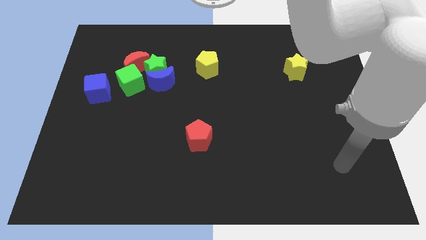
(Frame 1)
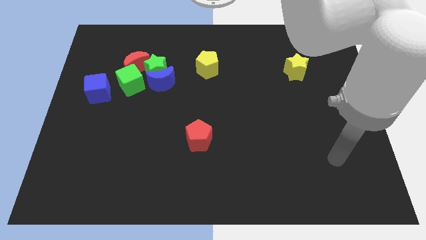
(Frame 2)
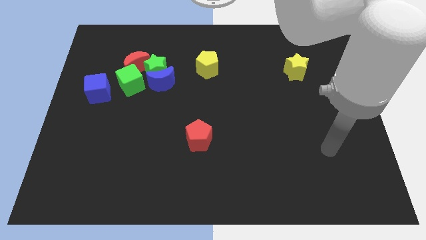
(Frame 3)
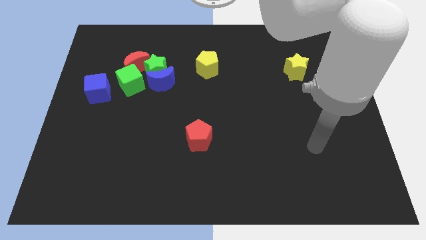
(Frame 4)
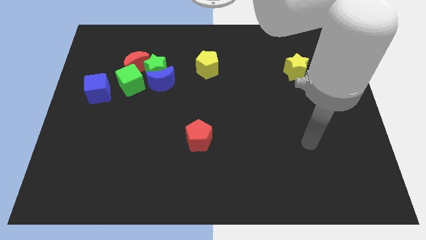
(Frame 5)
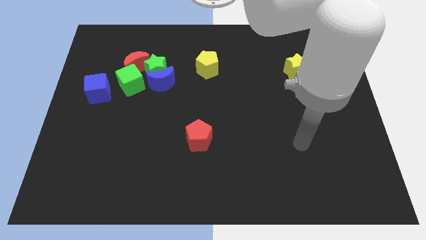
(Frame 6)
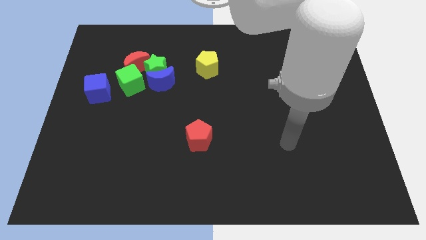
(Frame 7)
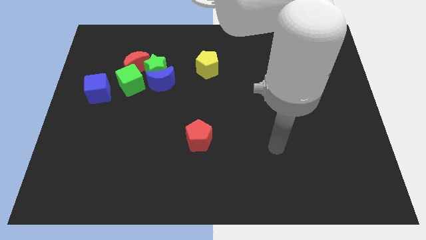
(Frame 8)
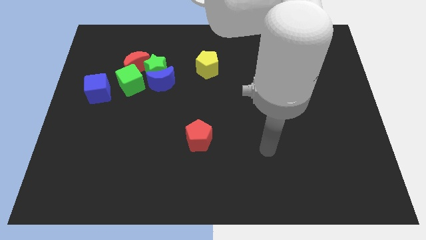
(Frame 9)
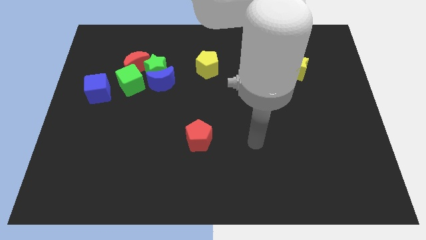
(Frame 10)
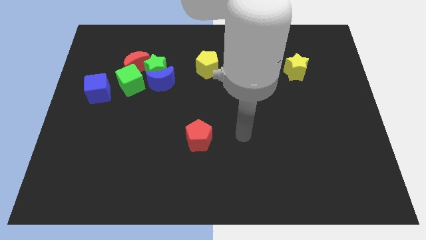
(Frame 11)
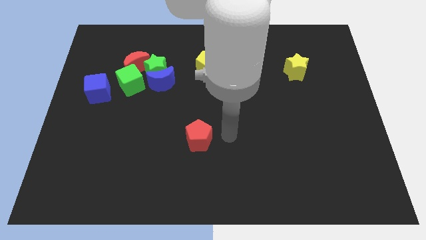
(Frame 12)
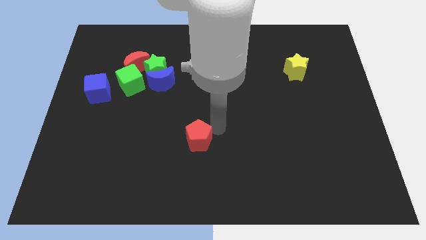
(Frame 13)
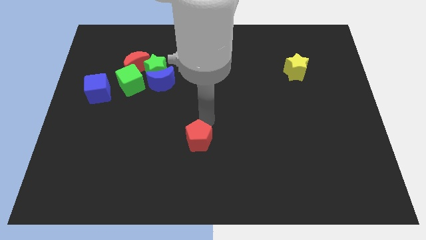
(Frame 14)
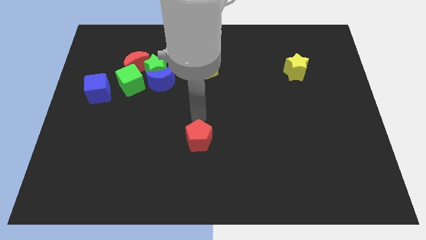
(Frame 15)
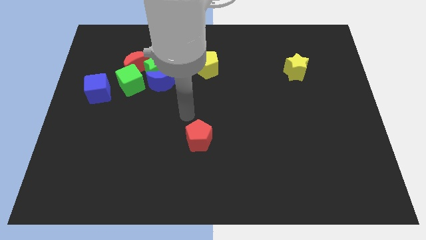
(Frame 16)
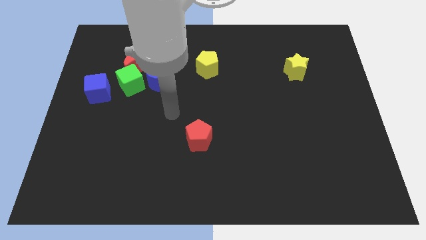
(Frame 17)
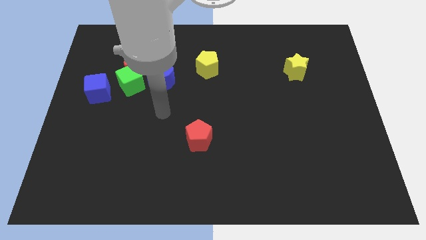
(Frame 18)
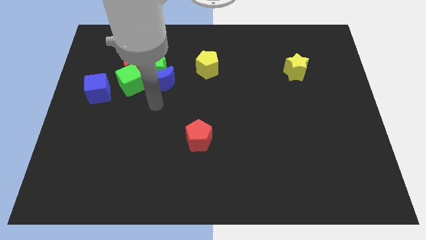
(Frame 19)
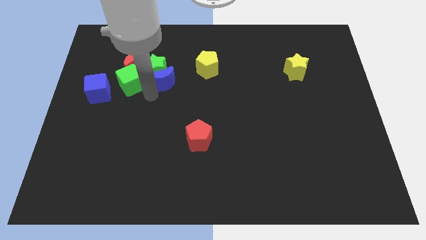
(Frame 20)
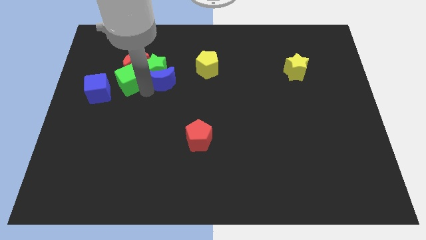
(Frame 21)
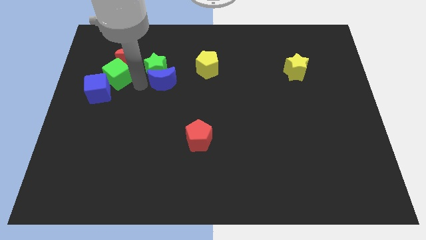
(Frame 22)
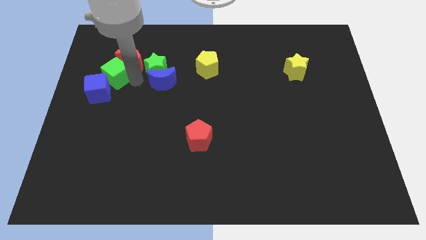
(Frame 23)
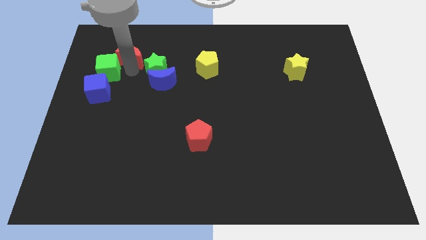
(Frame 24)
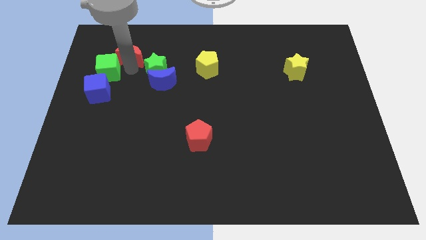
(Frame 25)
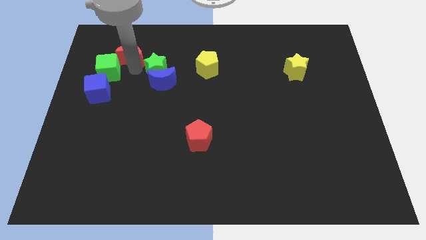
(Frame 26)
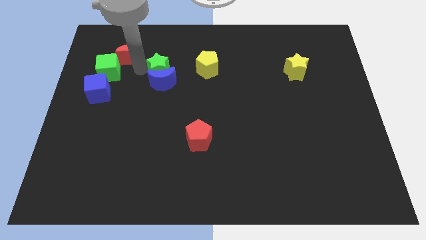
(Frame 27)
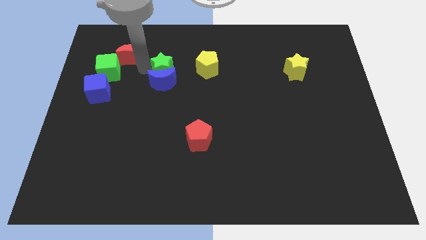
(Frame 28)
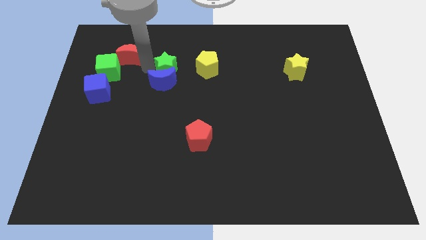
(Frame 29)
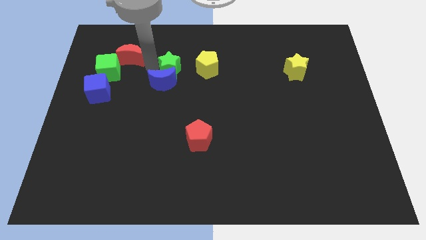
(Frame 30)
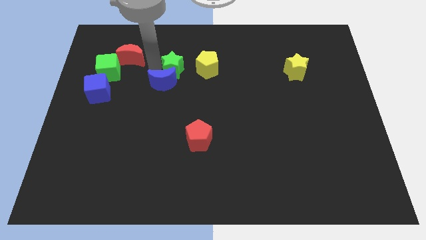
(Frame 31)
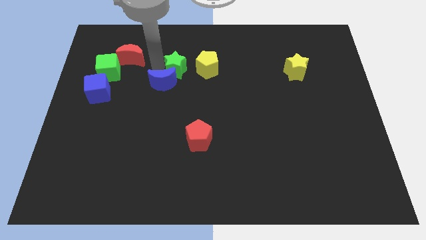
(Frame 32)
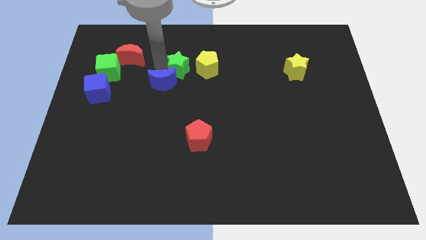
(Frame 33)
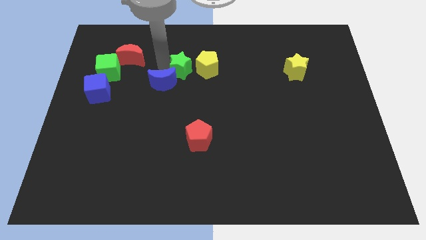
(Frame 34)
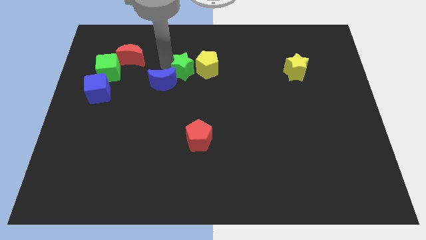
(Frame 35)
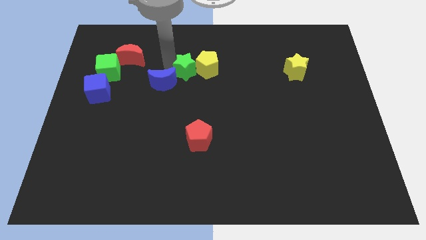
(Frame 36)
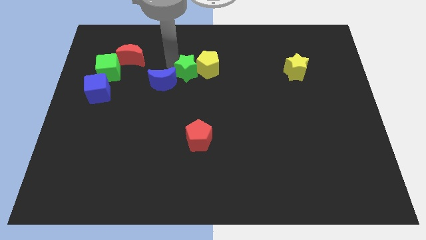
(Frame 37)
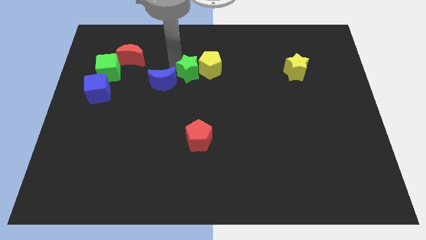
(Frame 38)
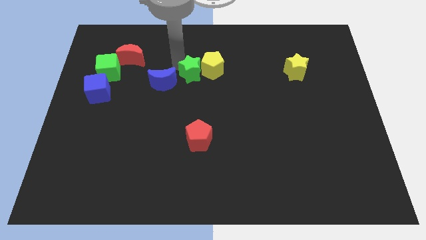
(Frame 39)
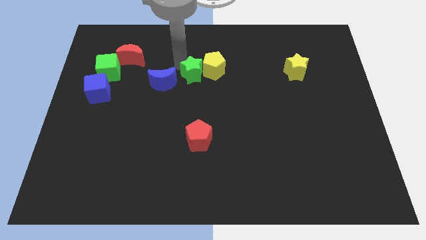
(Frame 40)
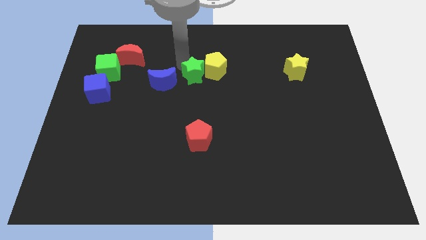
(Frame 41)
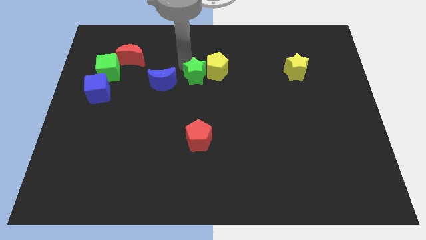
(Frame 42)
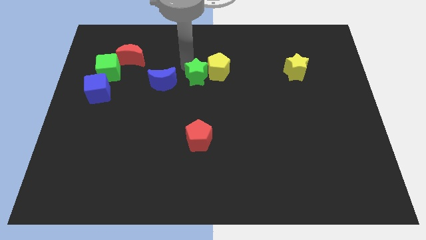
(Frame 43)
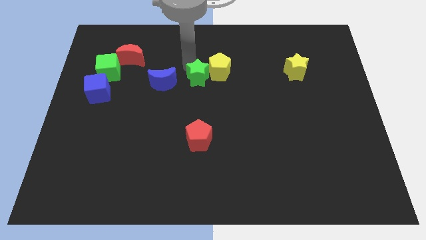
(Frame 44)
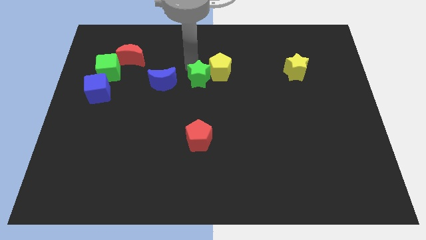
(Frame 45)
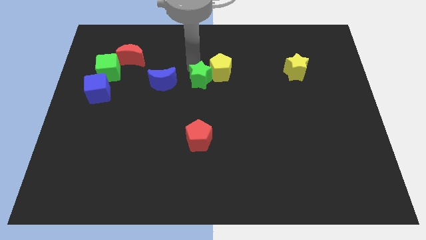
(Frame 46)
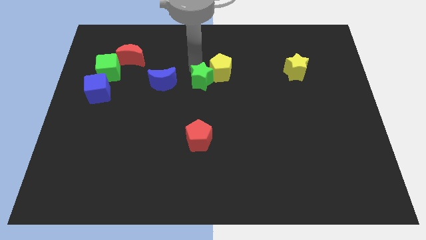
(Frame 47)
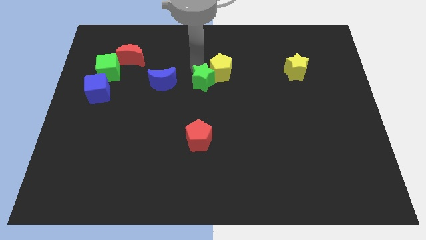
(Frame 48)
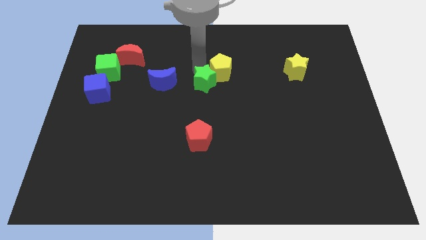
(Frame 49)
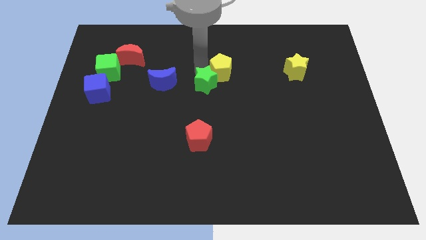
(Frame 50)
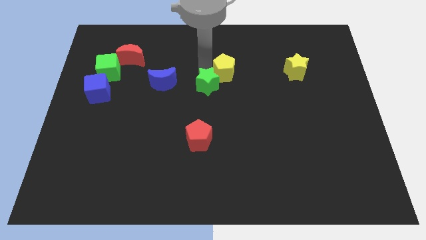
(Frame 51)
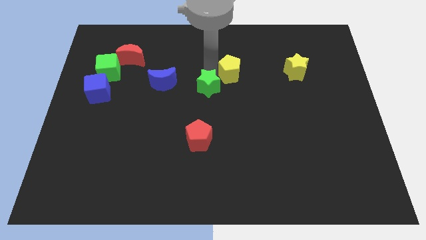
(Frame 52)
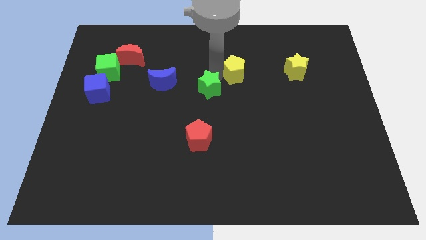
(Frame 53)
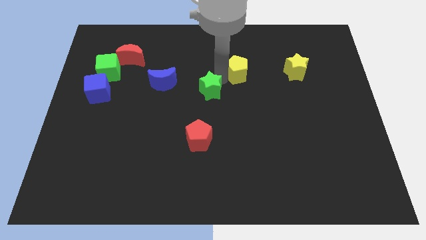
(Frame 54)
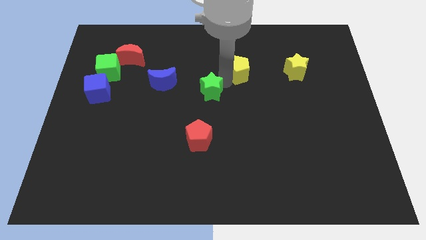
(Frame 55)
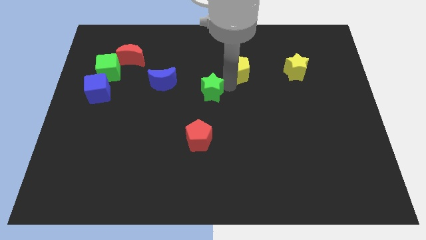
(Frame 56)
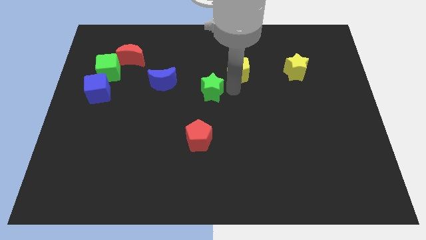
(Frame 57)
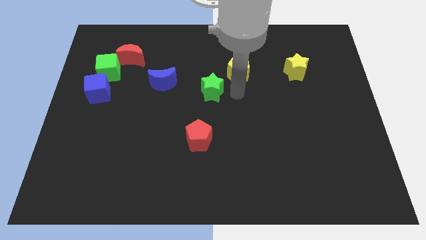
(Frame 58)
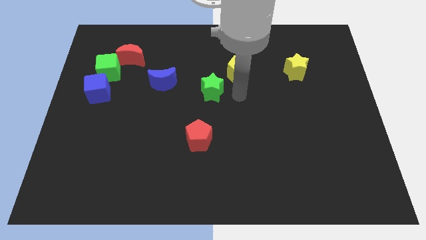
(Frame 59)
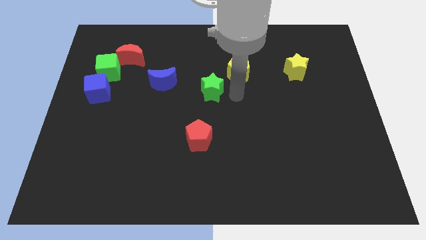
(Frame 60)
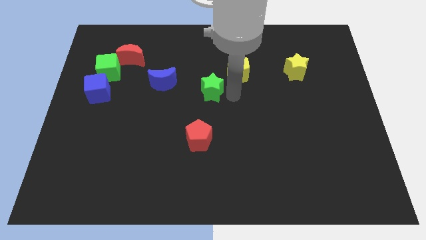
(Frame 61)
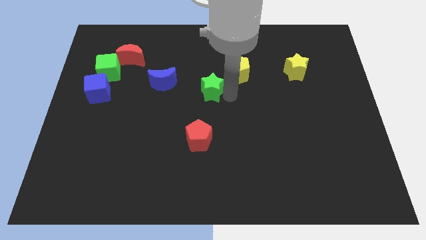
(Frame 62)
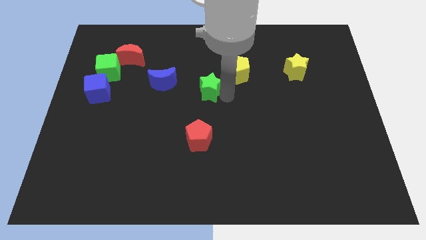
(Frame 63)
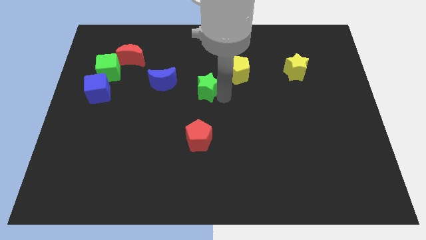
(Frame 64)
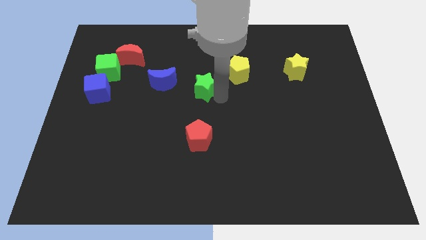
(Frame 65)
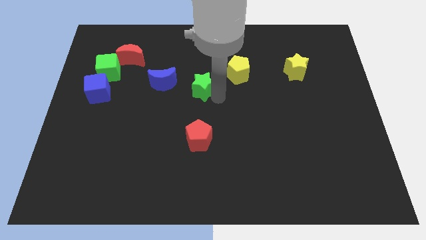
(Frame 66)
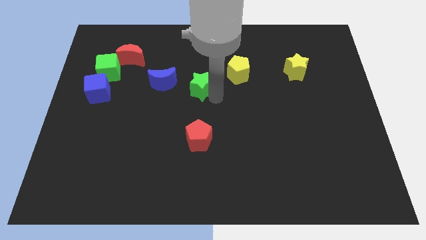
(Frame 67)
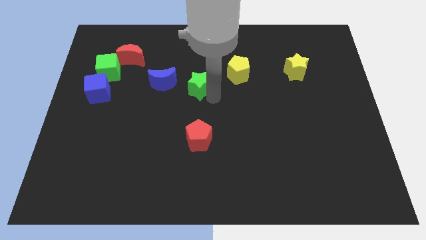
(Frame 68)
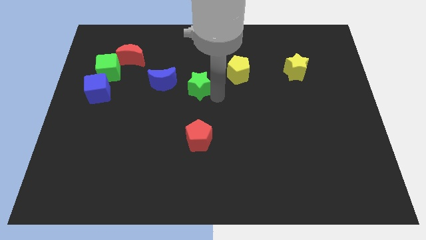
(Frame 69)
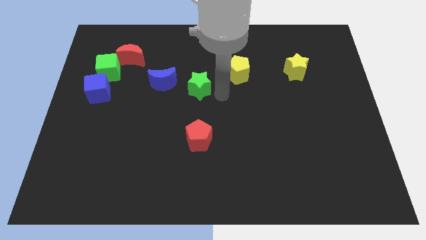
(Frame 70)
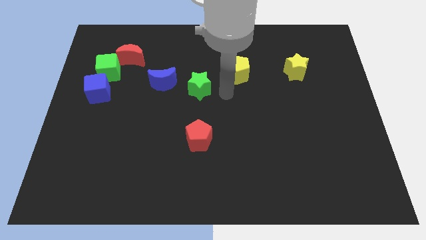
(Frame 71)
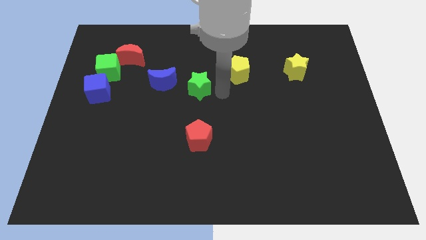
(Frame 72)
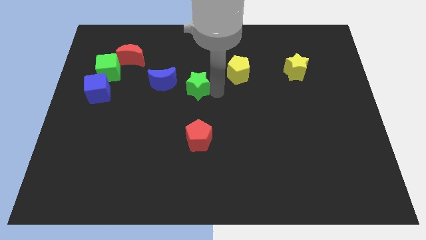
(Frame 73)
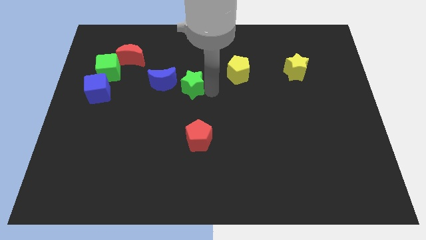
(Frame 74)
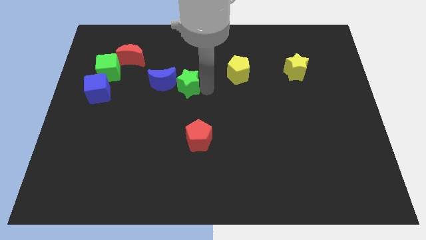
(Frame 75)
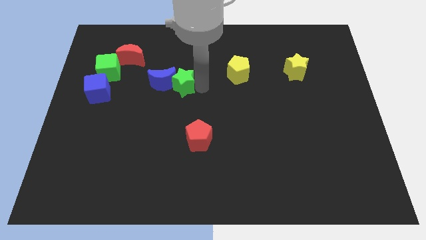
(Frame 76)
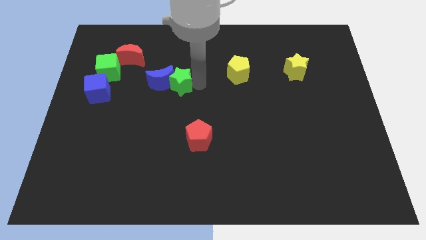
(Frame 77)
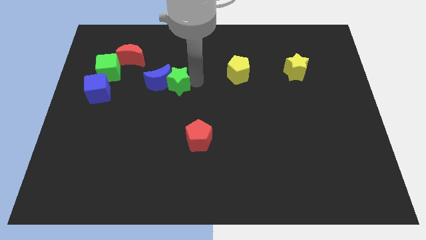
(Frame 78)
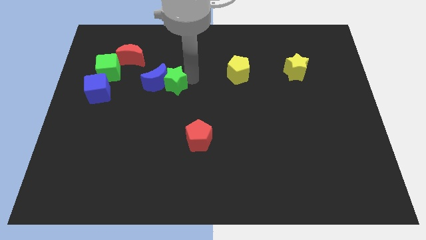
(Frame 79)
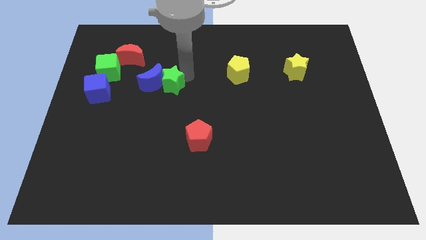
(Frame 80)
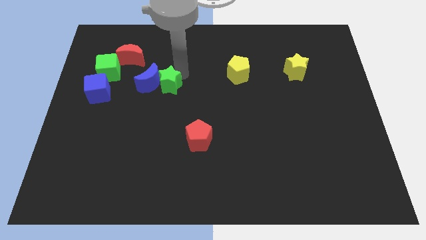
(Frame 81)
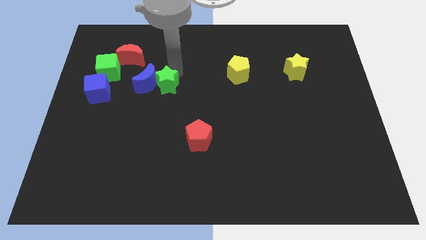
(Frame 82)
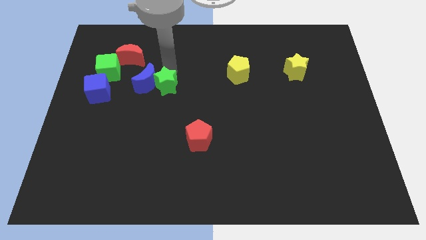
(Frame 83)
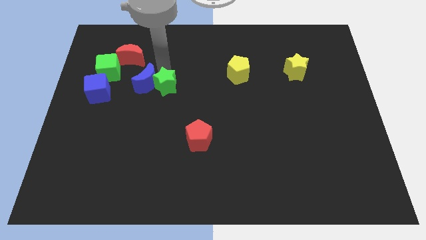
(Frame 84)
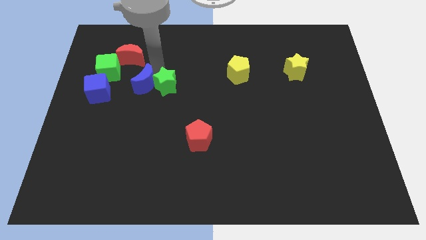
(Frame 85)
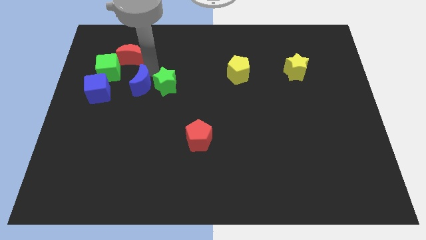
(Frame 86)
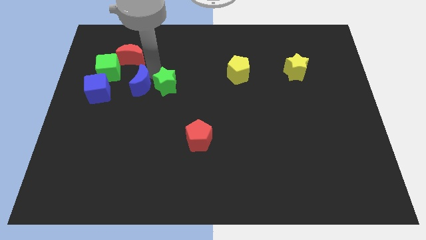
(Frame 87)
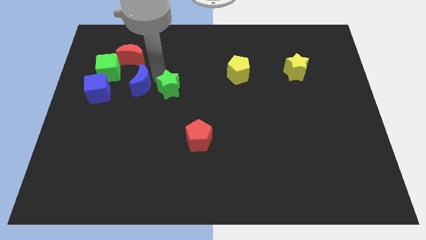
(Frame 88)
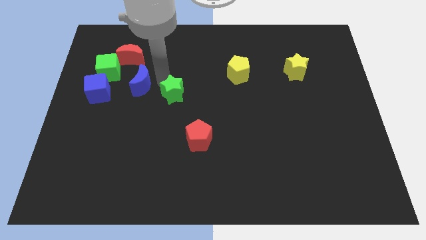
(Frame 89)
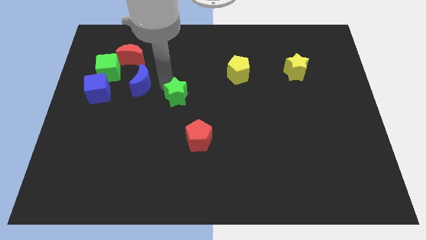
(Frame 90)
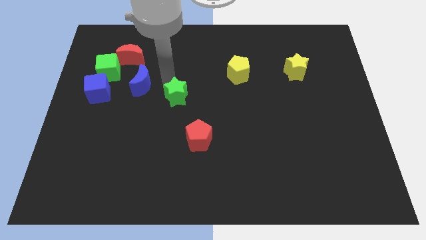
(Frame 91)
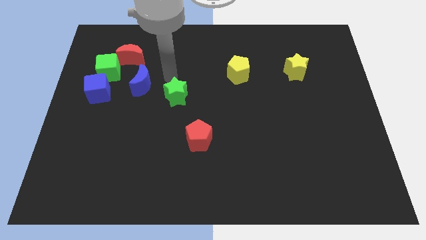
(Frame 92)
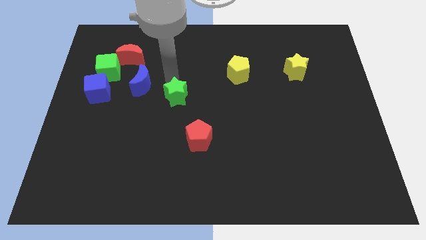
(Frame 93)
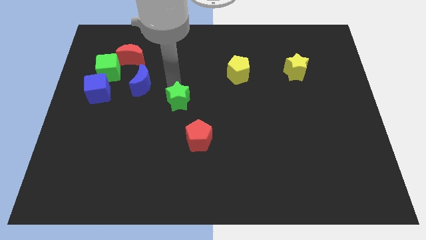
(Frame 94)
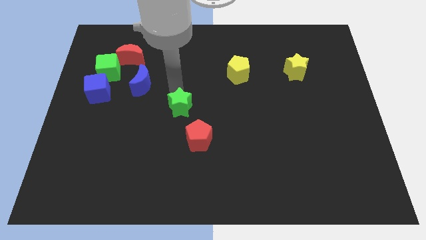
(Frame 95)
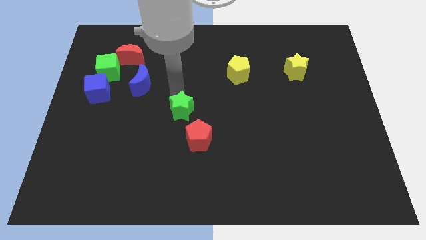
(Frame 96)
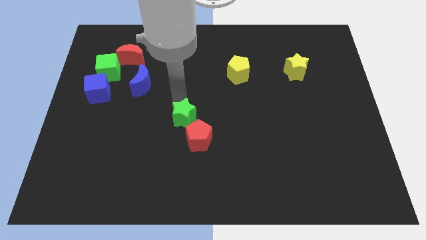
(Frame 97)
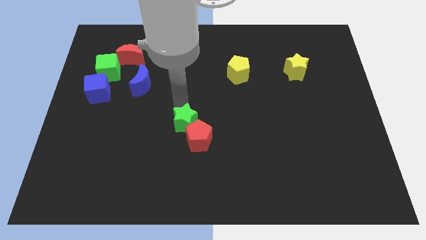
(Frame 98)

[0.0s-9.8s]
push the green star to the red pentagon
